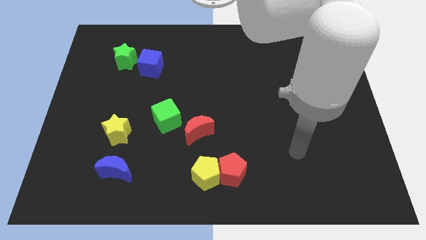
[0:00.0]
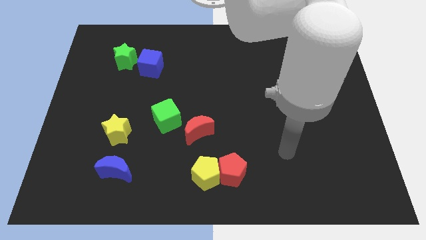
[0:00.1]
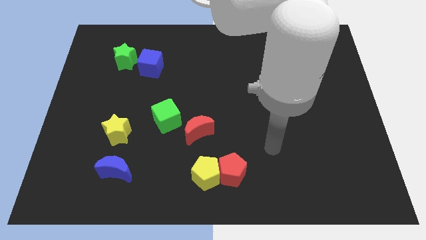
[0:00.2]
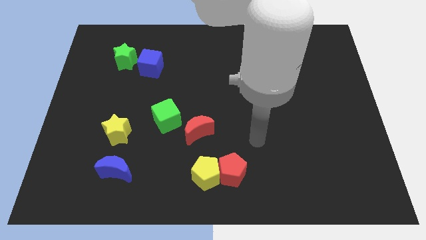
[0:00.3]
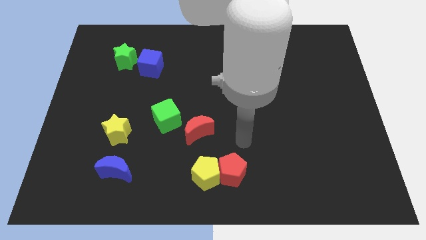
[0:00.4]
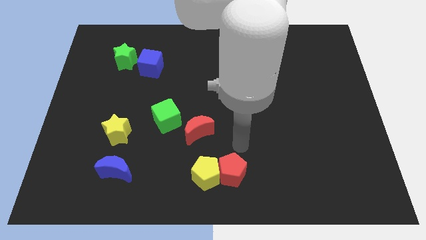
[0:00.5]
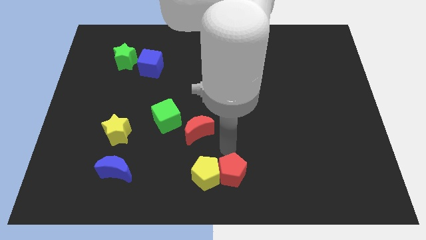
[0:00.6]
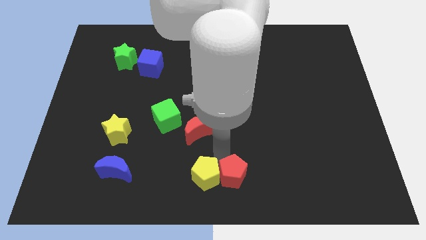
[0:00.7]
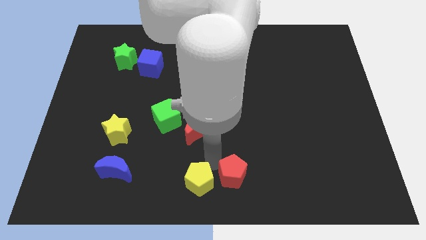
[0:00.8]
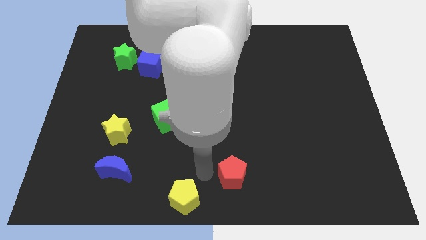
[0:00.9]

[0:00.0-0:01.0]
pull the red pentagon apart from the yellow pentagon

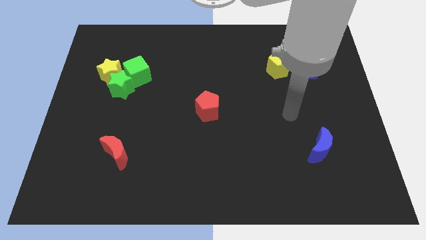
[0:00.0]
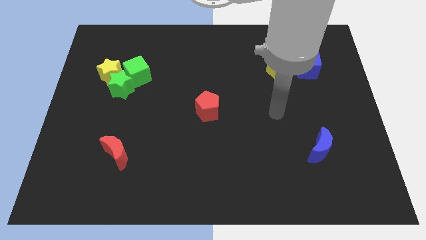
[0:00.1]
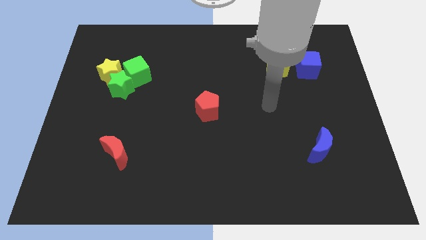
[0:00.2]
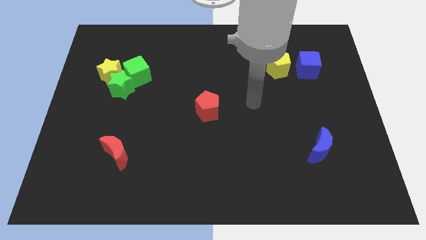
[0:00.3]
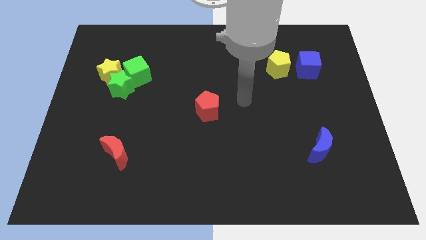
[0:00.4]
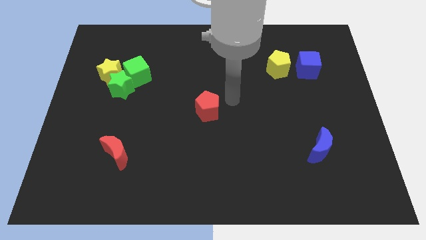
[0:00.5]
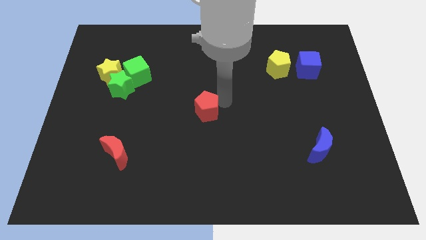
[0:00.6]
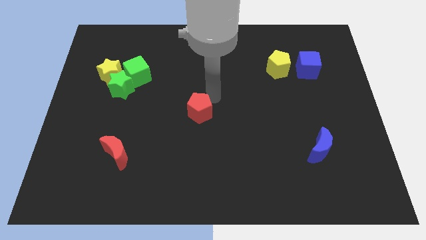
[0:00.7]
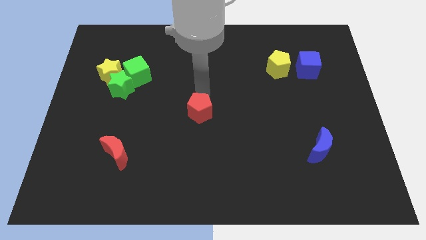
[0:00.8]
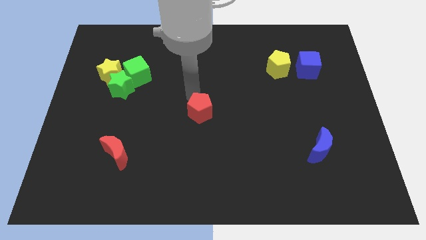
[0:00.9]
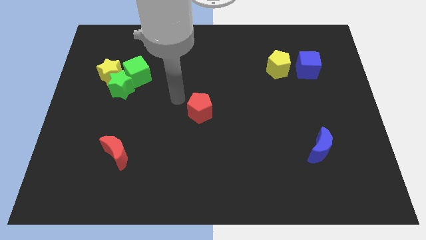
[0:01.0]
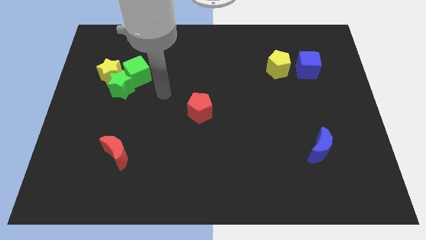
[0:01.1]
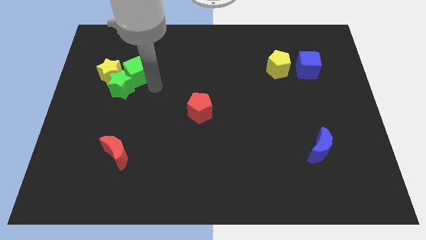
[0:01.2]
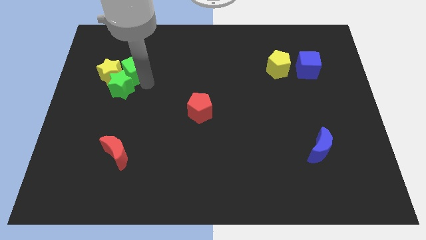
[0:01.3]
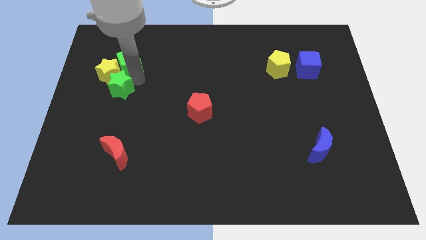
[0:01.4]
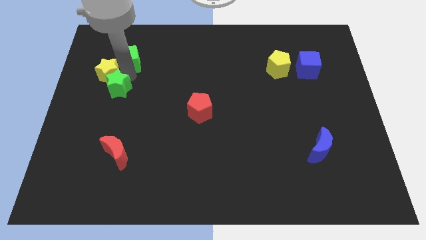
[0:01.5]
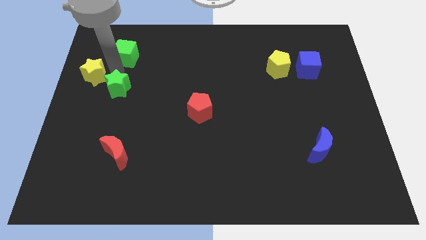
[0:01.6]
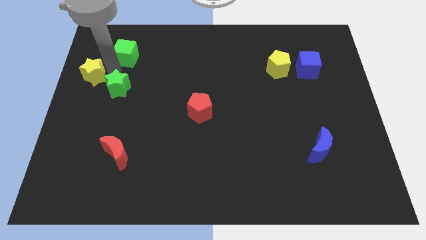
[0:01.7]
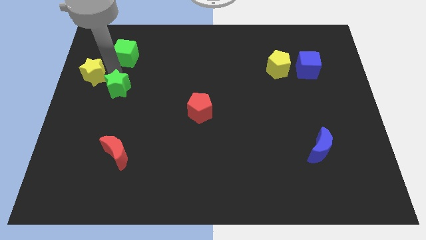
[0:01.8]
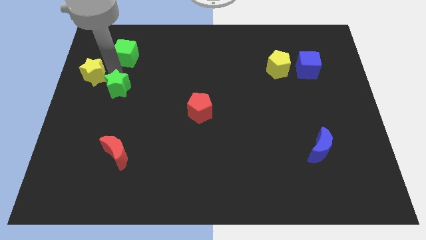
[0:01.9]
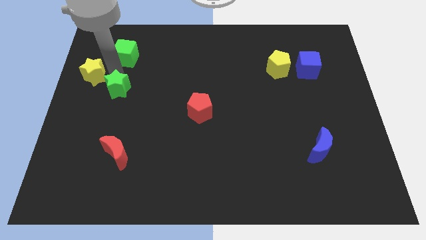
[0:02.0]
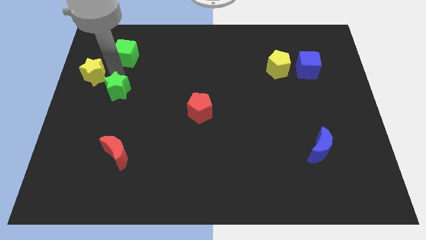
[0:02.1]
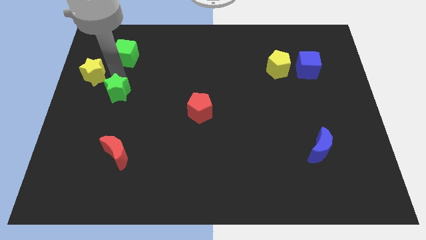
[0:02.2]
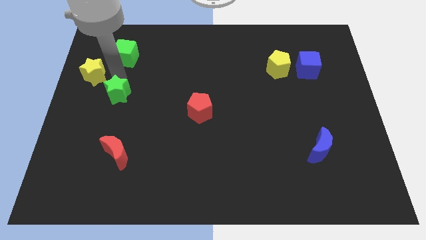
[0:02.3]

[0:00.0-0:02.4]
separate the green star from the yellow star and green cube

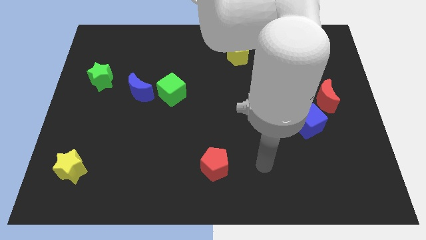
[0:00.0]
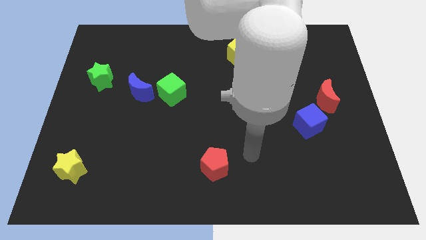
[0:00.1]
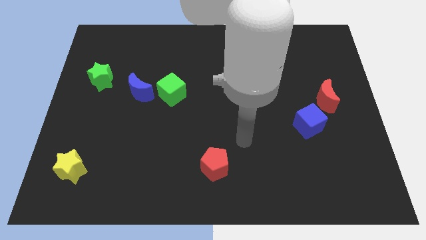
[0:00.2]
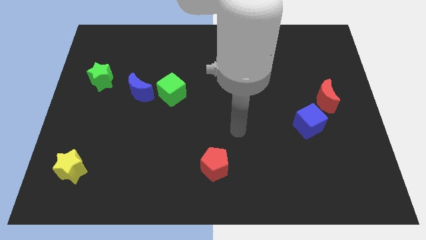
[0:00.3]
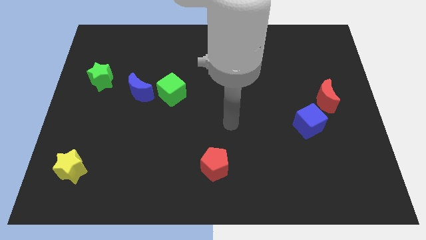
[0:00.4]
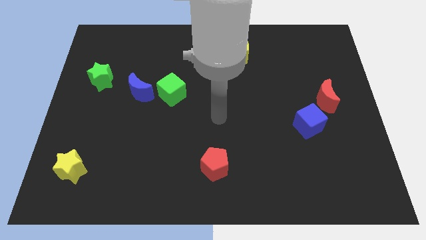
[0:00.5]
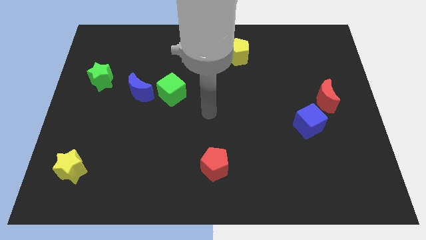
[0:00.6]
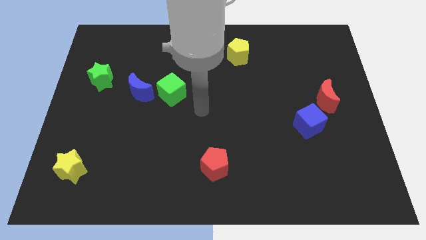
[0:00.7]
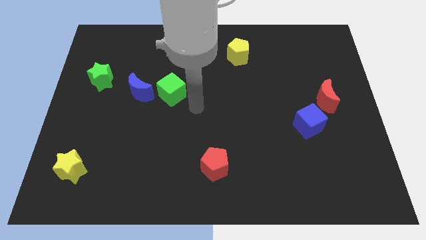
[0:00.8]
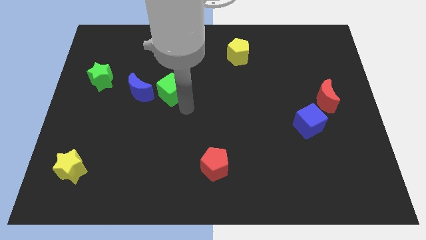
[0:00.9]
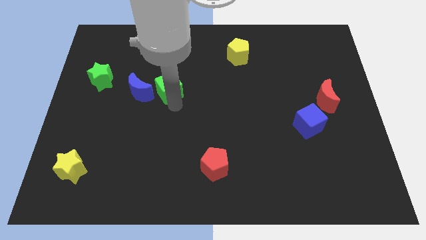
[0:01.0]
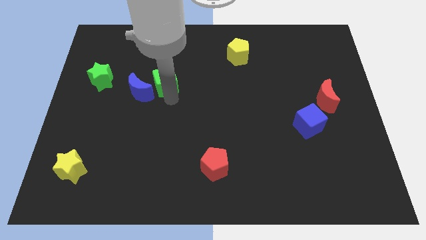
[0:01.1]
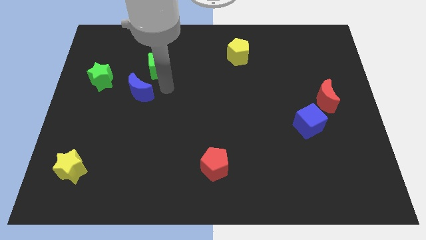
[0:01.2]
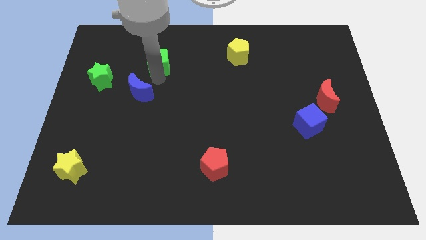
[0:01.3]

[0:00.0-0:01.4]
separate the blue moon from the green cube

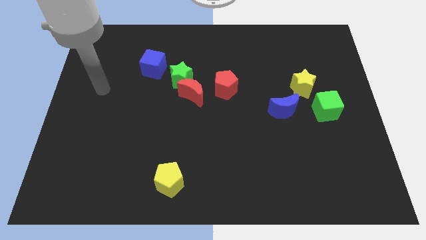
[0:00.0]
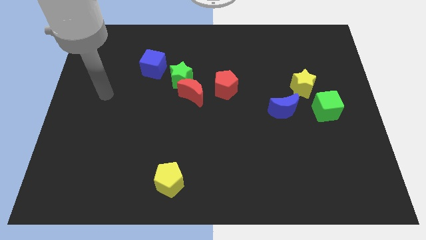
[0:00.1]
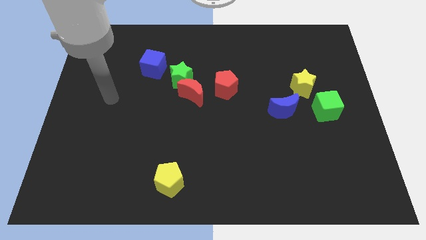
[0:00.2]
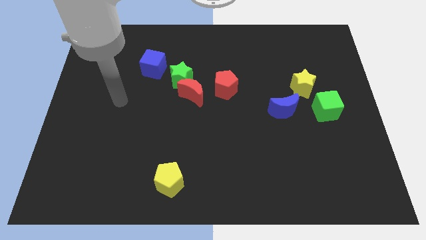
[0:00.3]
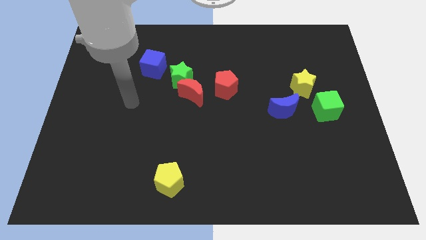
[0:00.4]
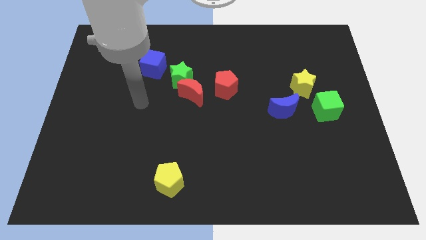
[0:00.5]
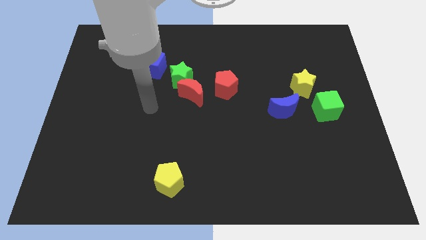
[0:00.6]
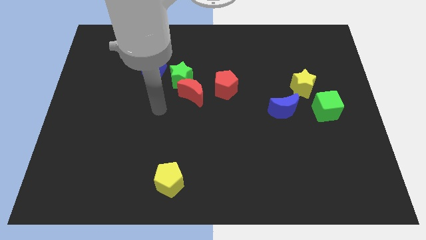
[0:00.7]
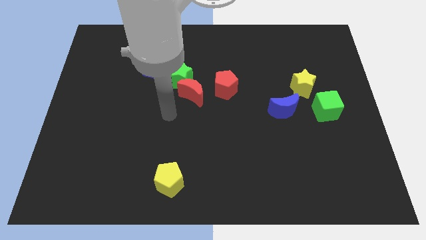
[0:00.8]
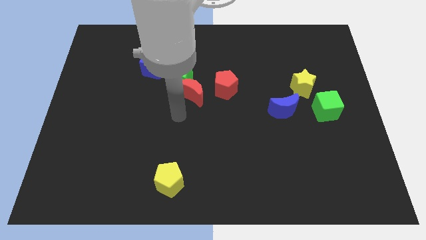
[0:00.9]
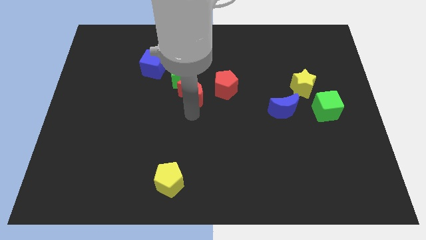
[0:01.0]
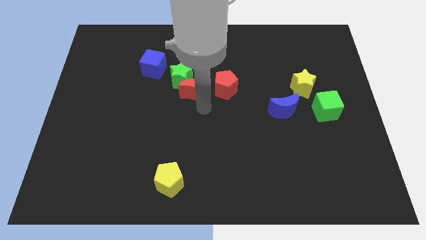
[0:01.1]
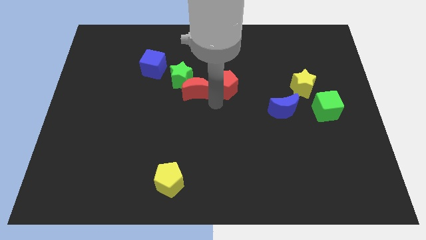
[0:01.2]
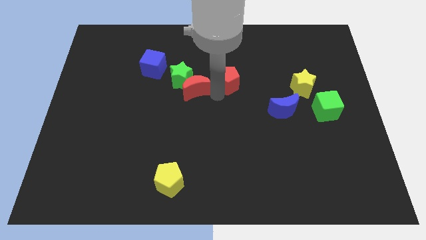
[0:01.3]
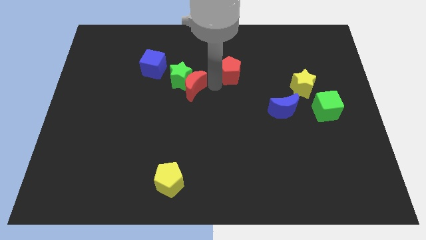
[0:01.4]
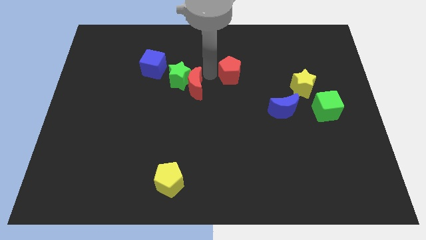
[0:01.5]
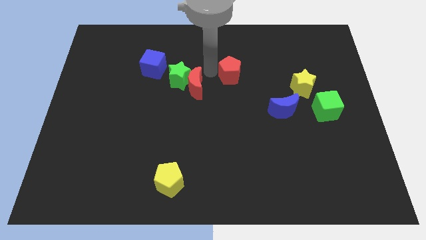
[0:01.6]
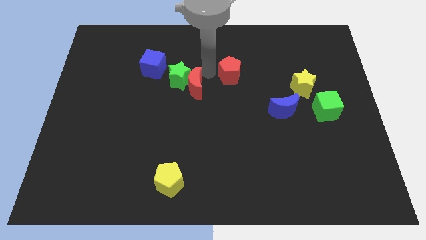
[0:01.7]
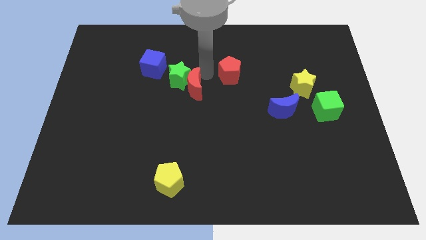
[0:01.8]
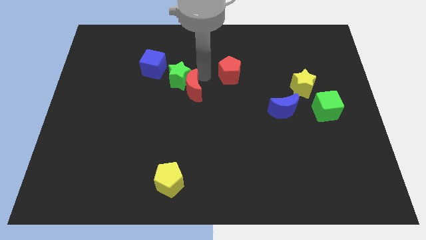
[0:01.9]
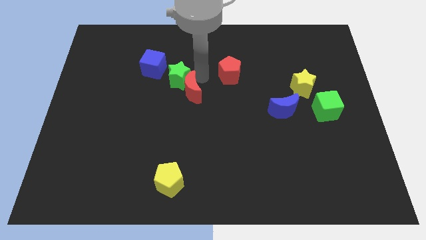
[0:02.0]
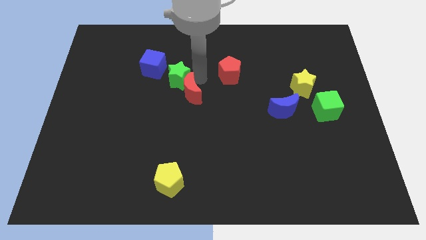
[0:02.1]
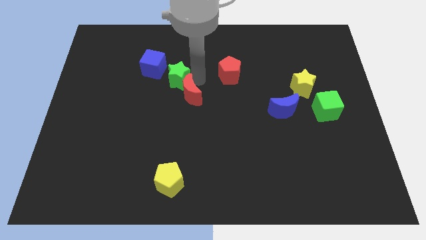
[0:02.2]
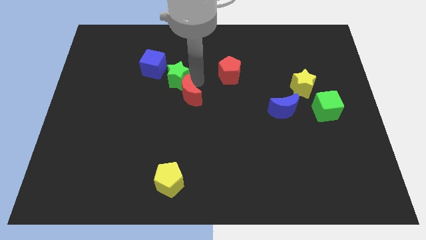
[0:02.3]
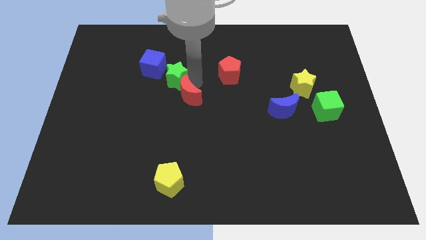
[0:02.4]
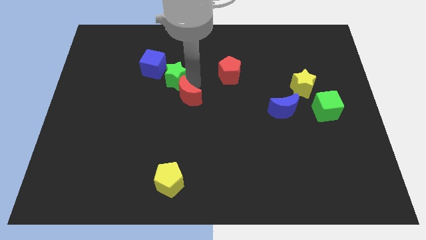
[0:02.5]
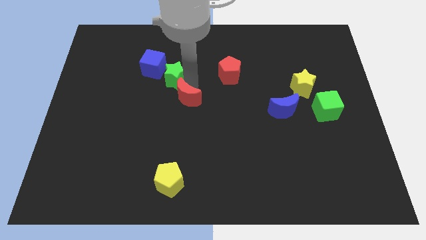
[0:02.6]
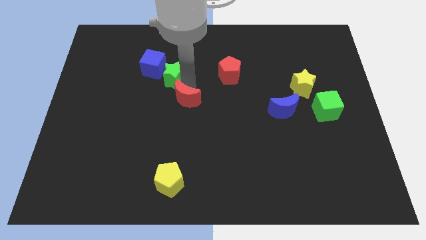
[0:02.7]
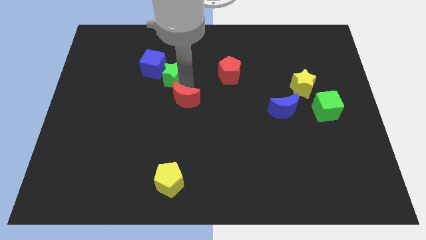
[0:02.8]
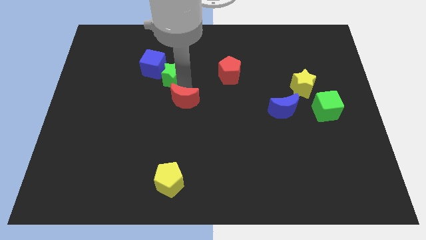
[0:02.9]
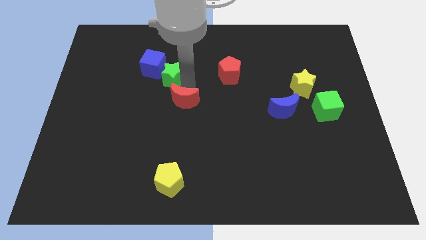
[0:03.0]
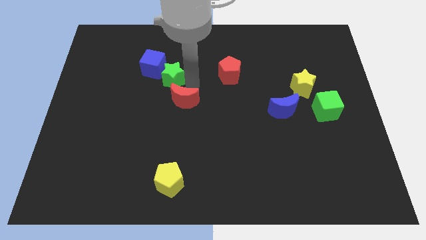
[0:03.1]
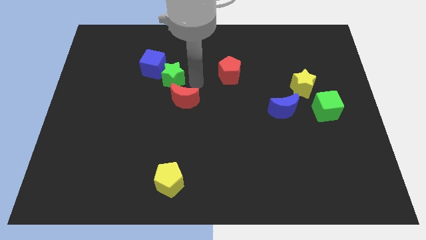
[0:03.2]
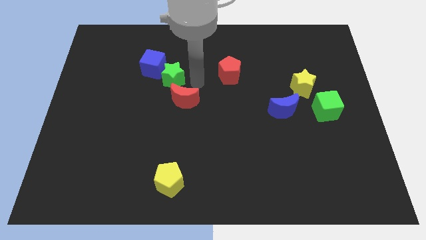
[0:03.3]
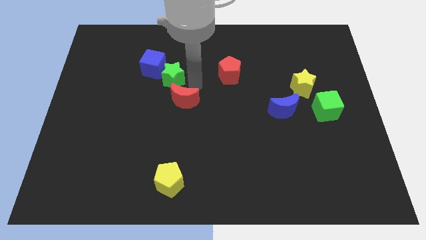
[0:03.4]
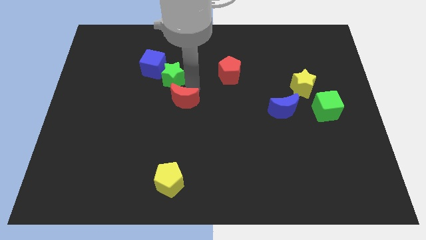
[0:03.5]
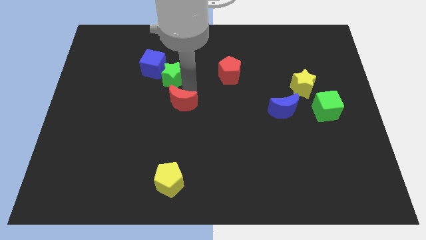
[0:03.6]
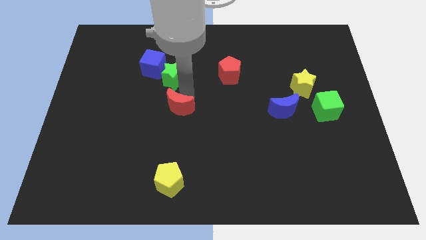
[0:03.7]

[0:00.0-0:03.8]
move the red moon away from the green star and red pentagon

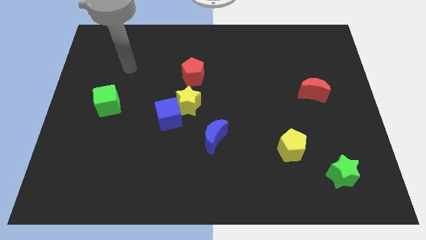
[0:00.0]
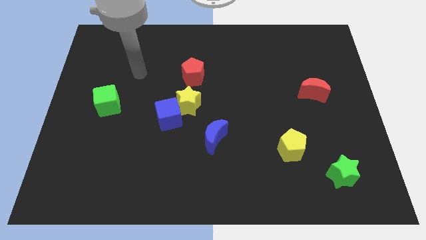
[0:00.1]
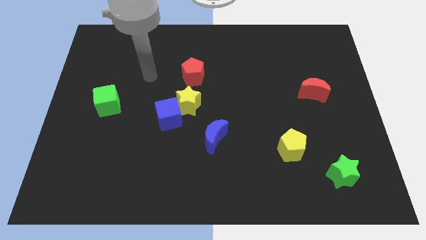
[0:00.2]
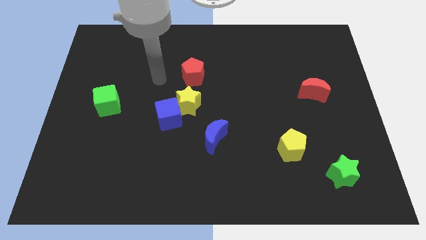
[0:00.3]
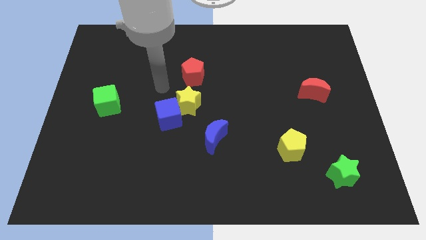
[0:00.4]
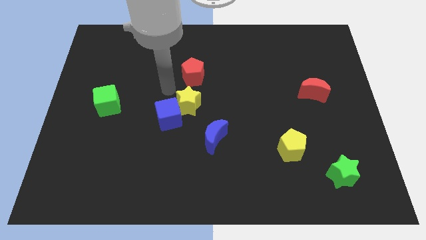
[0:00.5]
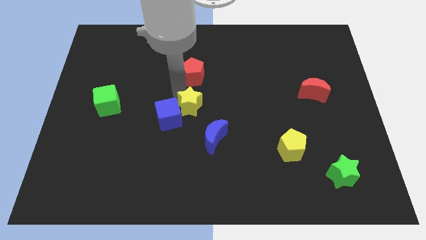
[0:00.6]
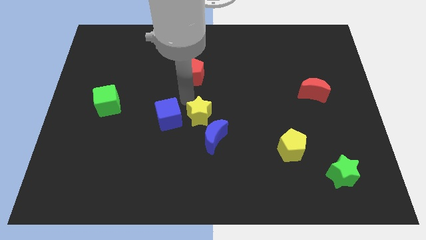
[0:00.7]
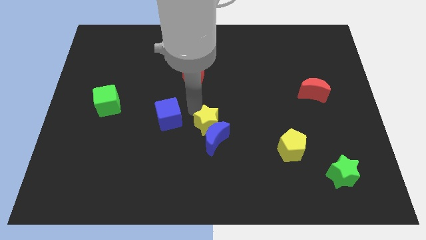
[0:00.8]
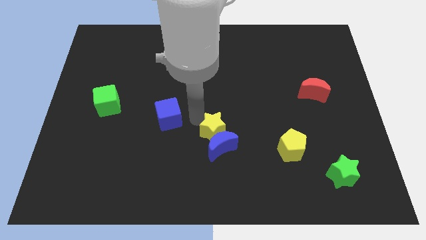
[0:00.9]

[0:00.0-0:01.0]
move the blue cube away from the yellow star
